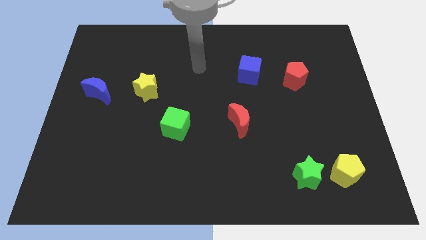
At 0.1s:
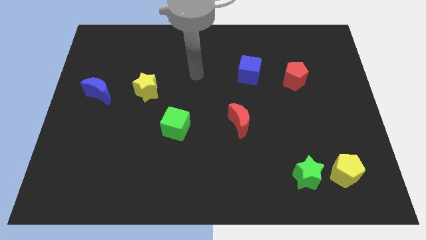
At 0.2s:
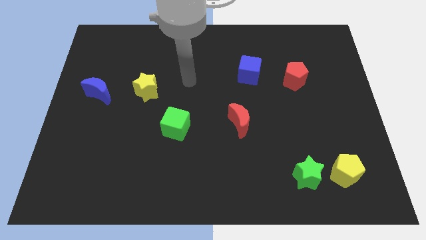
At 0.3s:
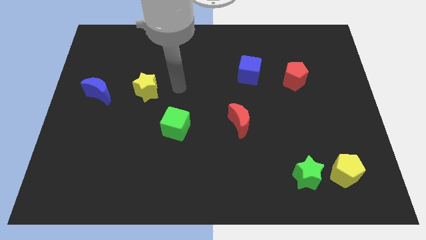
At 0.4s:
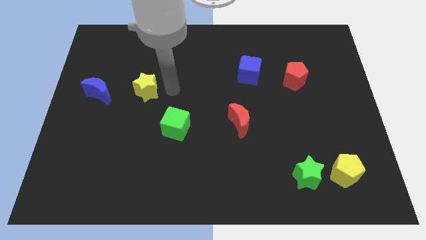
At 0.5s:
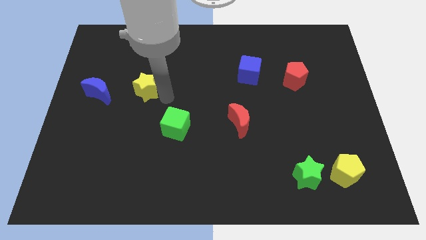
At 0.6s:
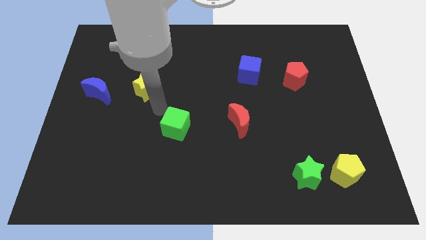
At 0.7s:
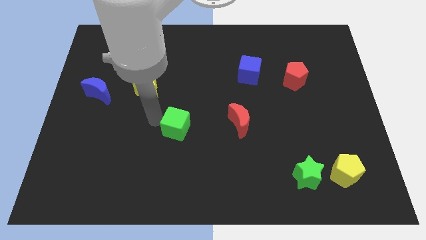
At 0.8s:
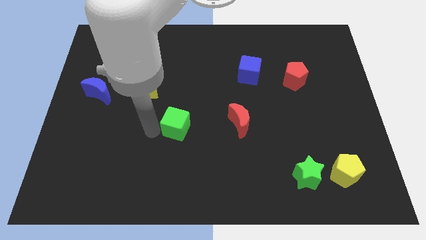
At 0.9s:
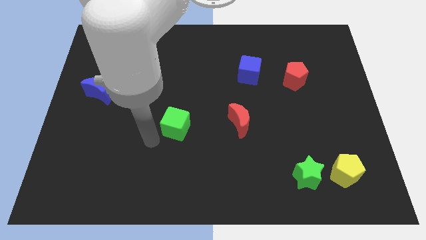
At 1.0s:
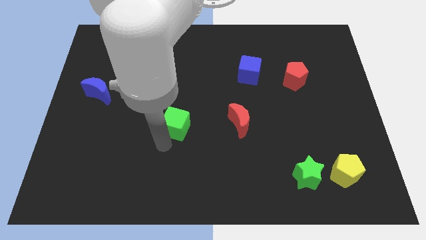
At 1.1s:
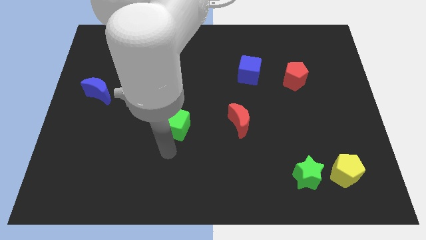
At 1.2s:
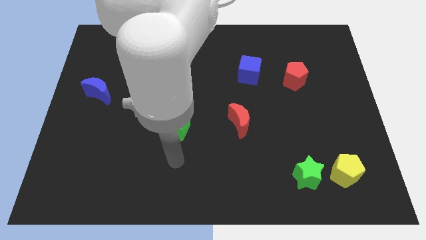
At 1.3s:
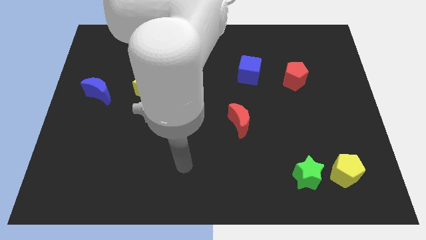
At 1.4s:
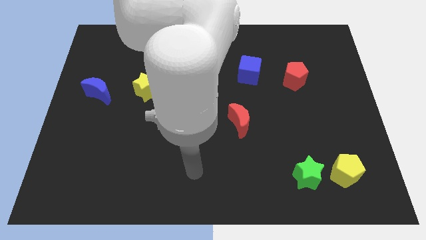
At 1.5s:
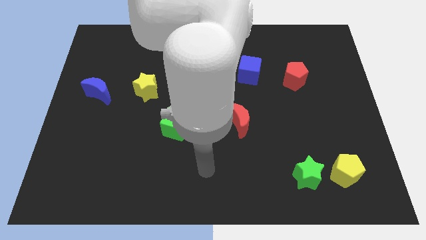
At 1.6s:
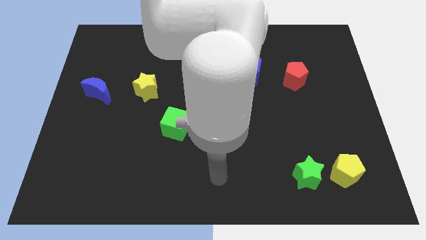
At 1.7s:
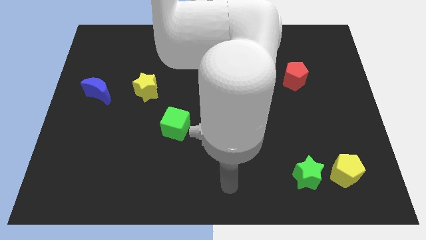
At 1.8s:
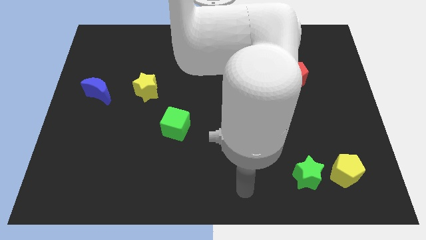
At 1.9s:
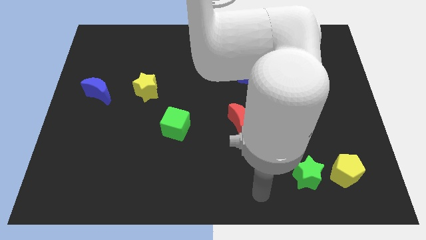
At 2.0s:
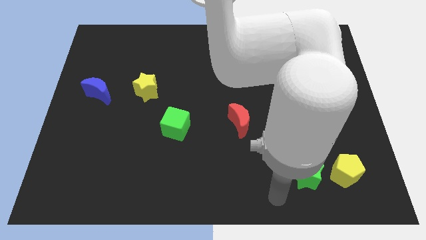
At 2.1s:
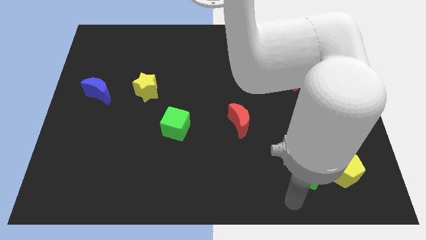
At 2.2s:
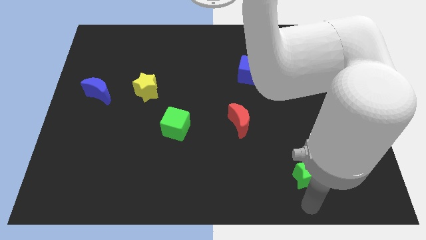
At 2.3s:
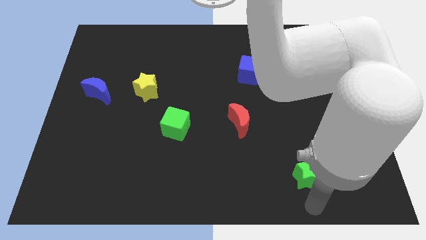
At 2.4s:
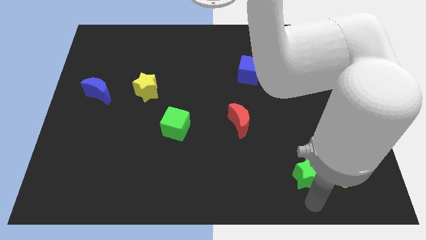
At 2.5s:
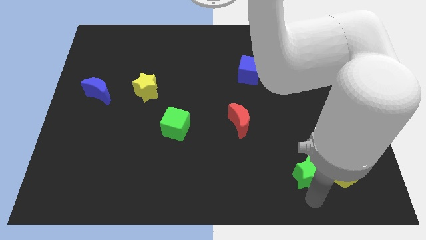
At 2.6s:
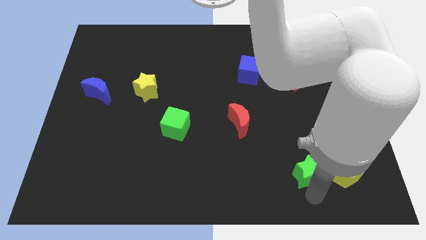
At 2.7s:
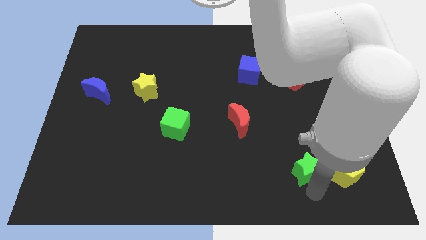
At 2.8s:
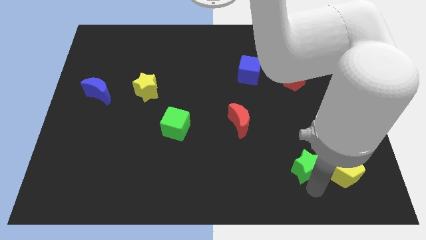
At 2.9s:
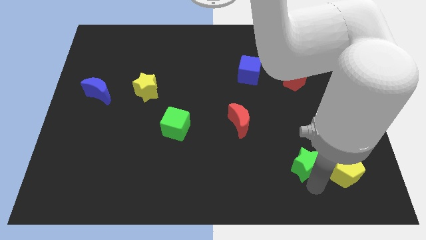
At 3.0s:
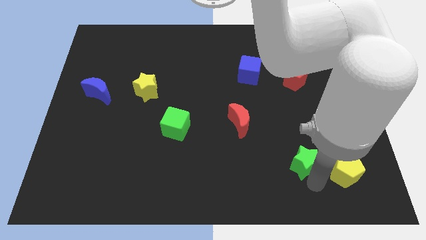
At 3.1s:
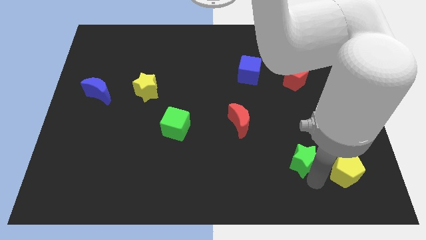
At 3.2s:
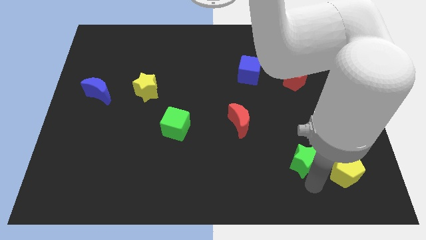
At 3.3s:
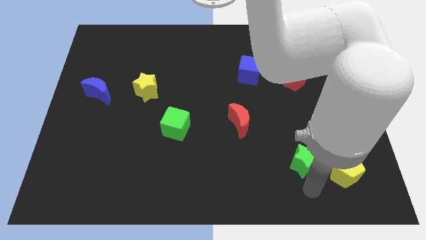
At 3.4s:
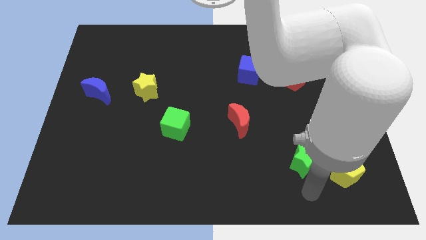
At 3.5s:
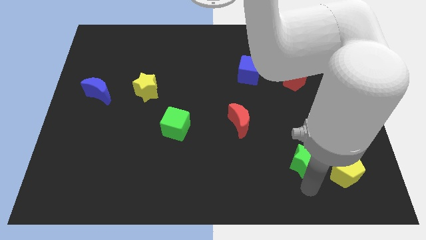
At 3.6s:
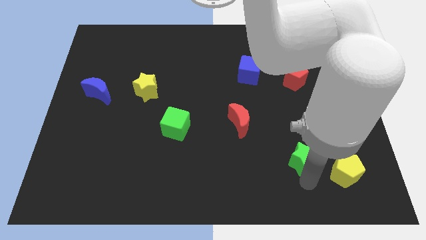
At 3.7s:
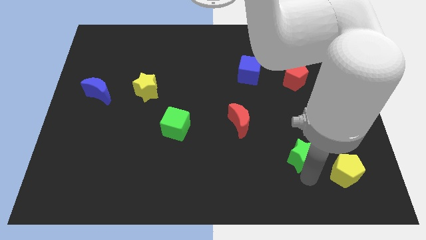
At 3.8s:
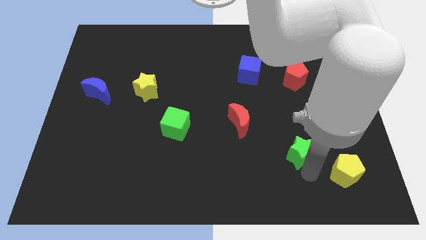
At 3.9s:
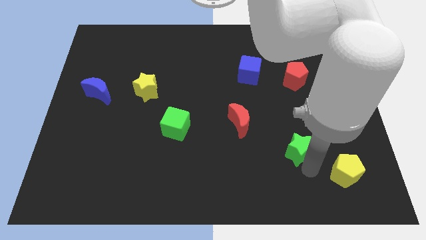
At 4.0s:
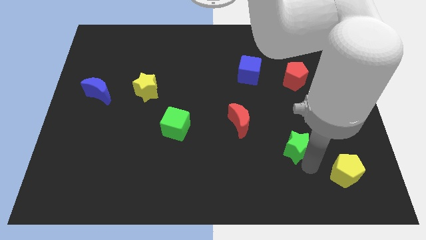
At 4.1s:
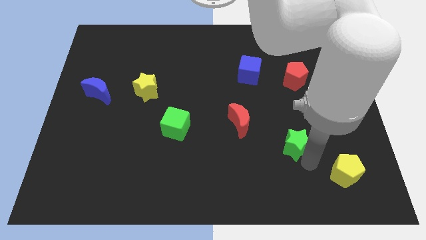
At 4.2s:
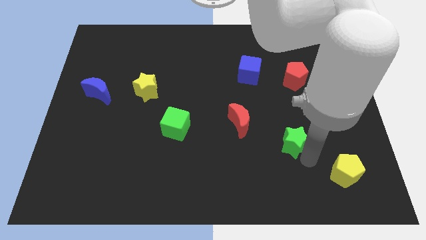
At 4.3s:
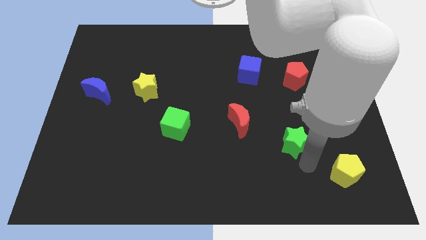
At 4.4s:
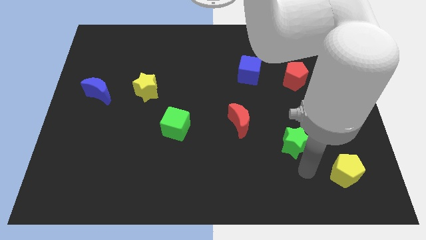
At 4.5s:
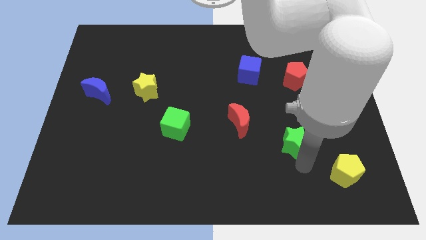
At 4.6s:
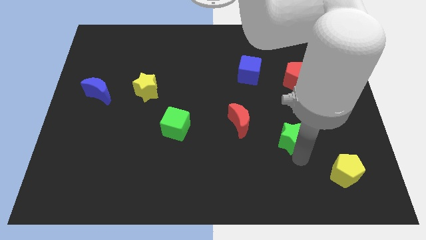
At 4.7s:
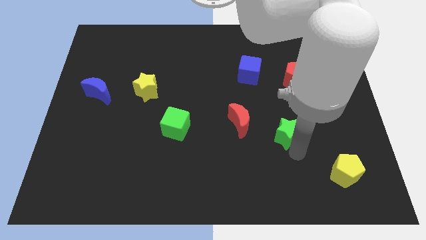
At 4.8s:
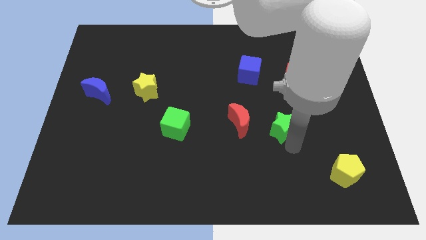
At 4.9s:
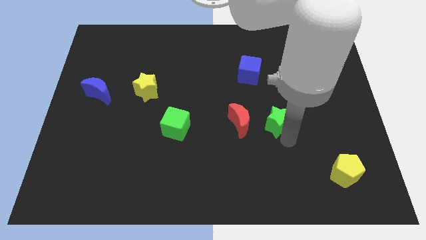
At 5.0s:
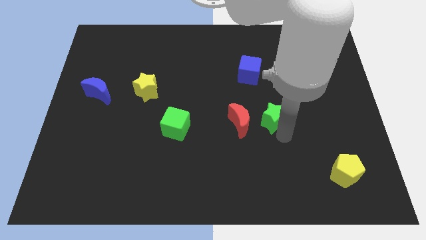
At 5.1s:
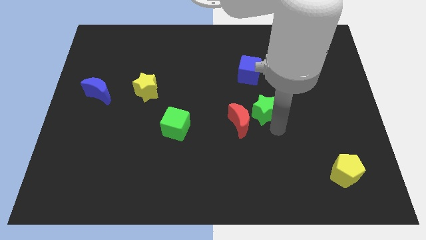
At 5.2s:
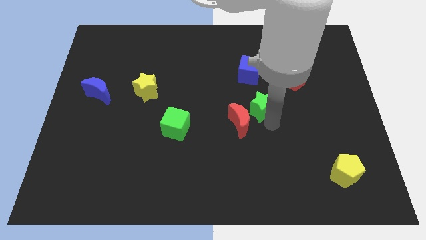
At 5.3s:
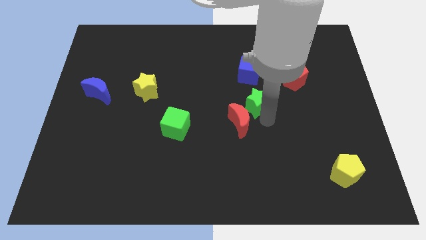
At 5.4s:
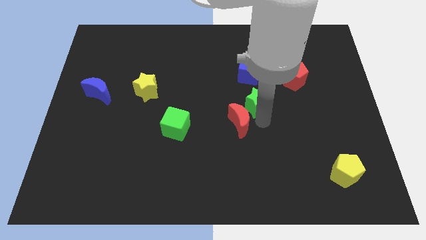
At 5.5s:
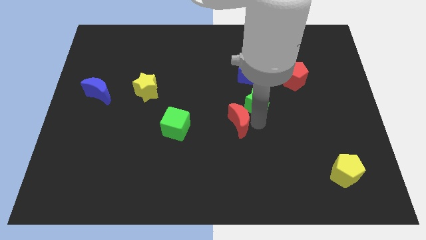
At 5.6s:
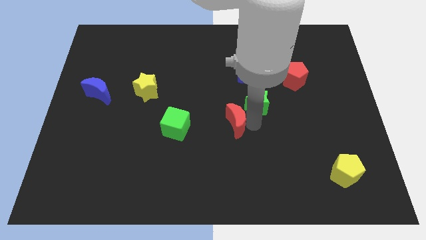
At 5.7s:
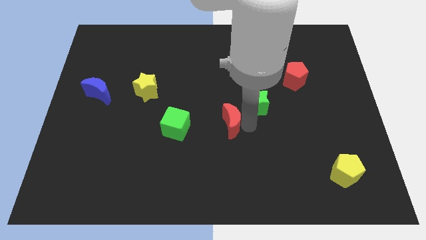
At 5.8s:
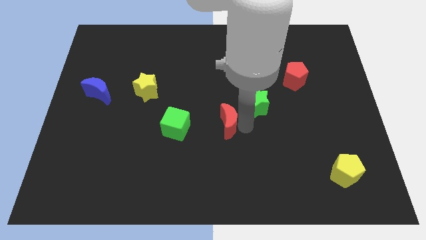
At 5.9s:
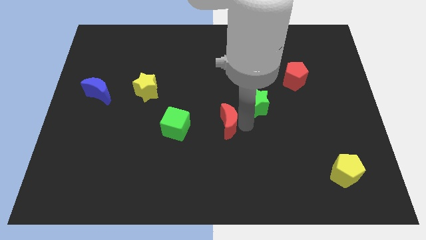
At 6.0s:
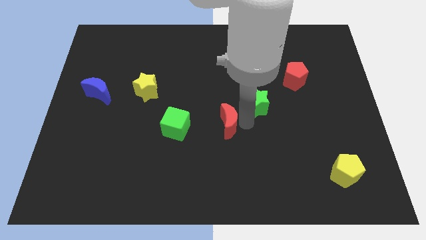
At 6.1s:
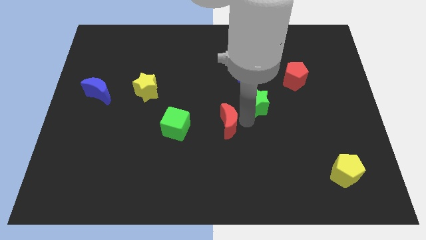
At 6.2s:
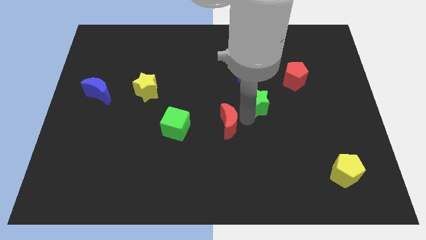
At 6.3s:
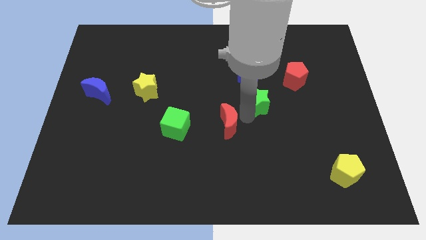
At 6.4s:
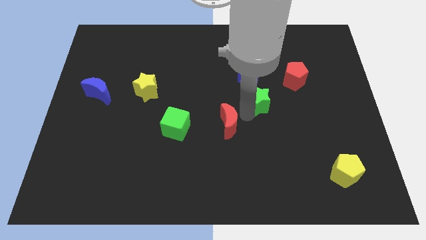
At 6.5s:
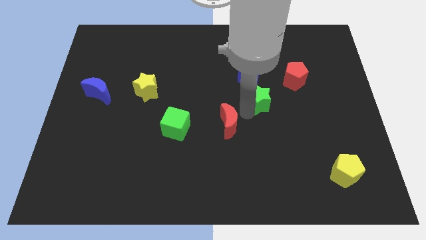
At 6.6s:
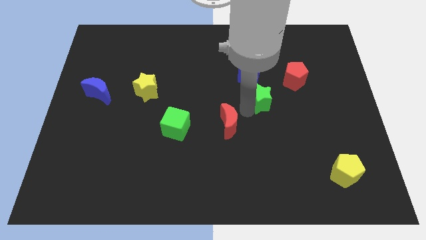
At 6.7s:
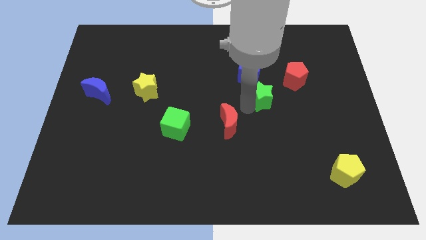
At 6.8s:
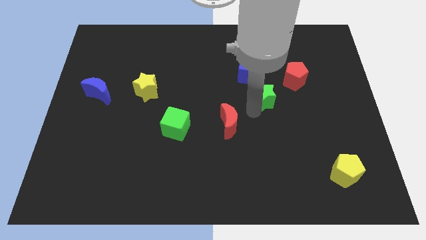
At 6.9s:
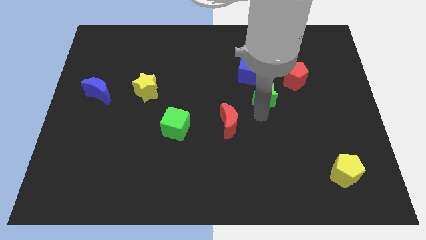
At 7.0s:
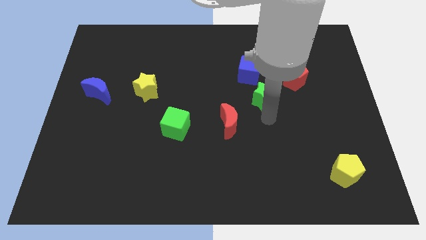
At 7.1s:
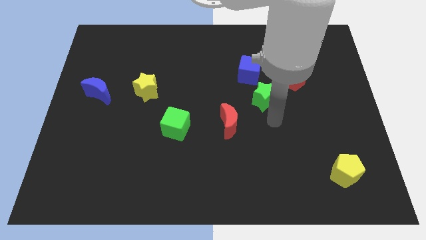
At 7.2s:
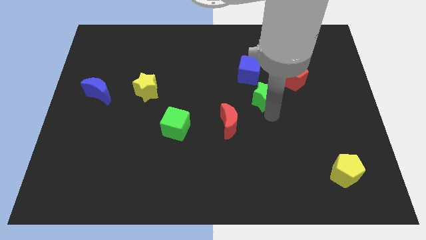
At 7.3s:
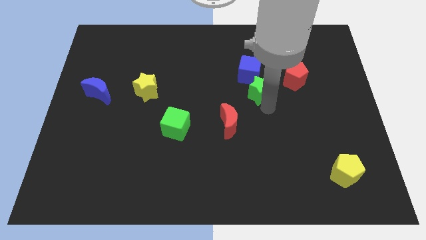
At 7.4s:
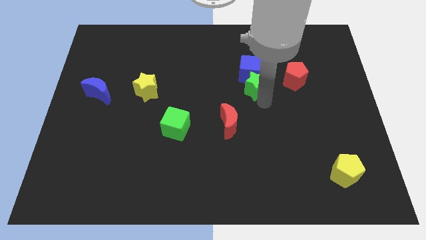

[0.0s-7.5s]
put the green star towards the blue cube
